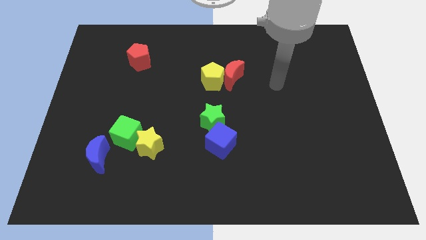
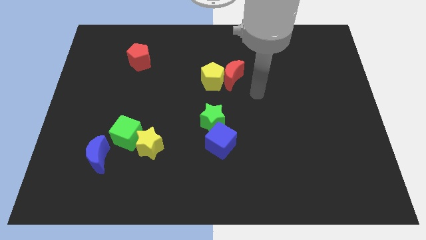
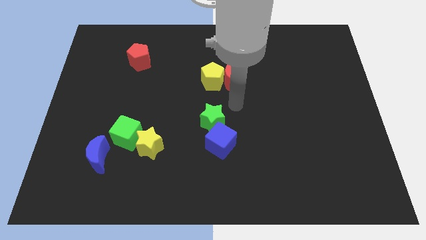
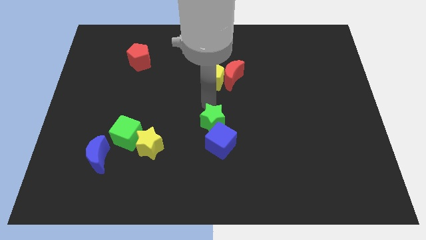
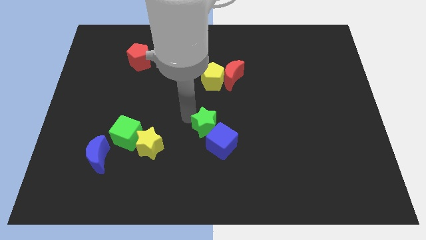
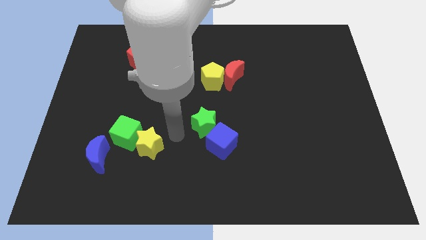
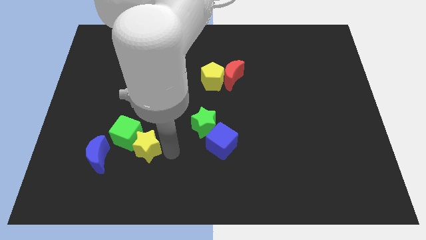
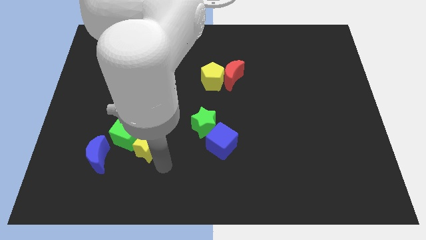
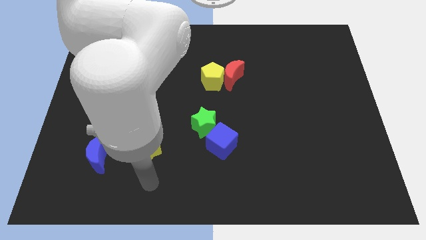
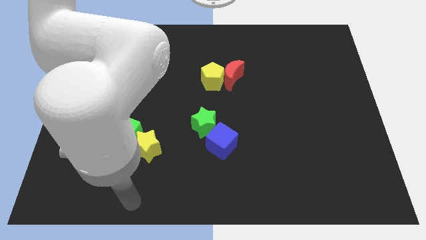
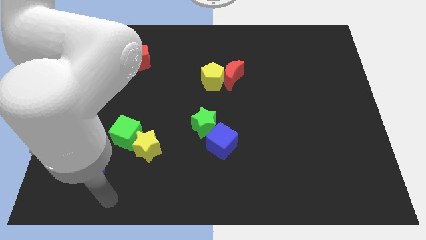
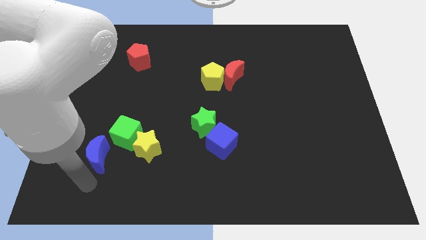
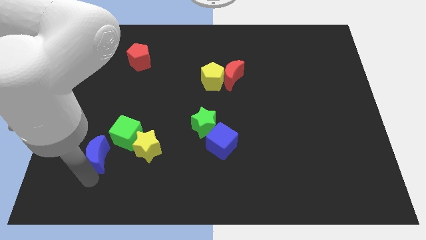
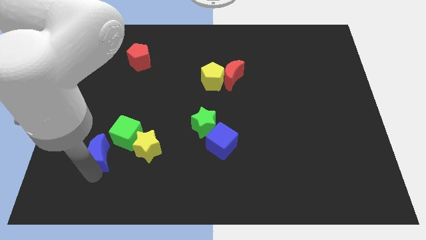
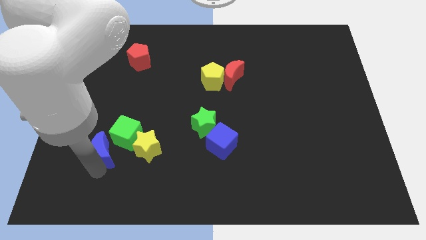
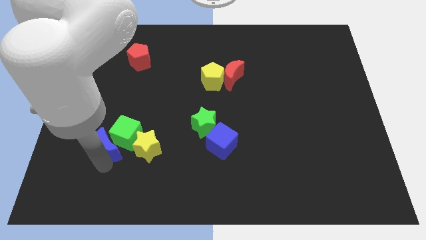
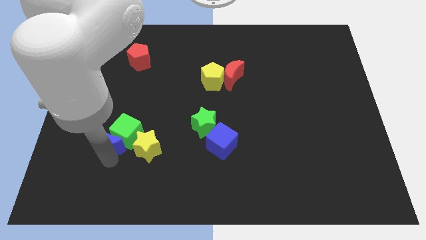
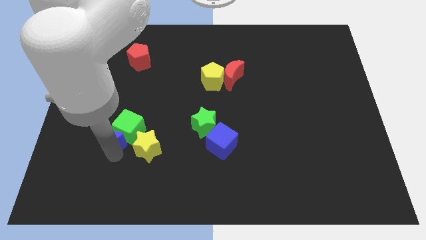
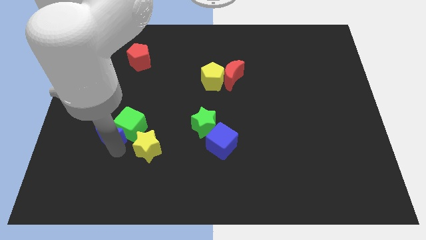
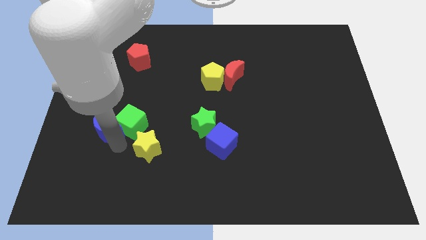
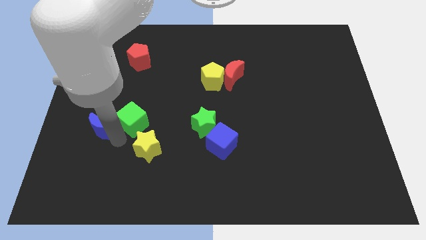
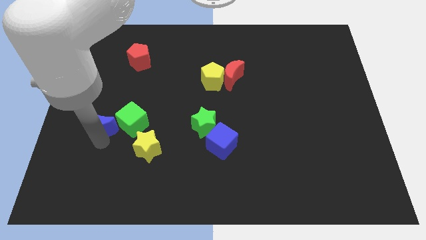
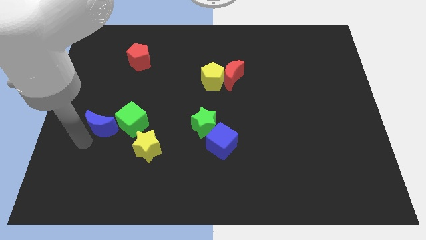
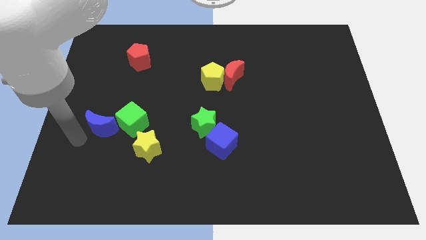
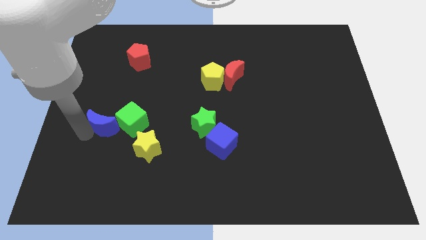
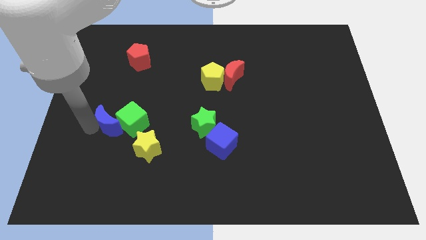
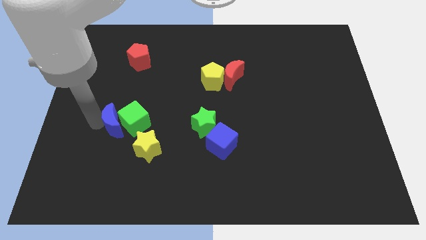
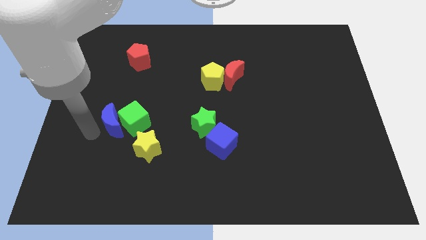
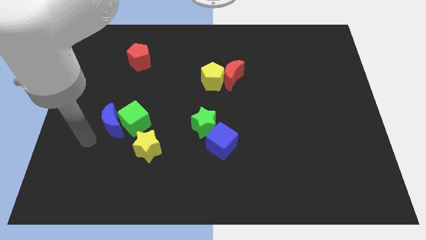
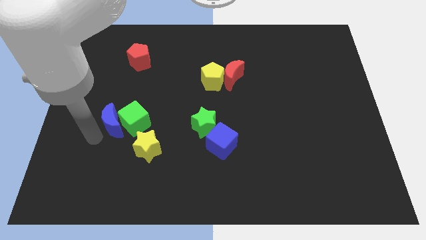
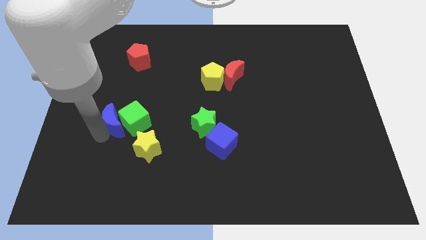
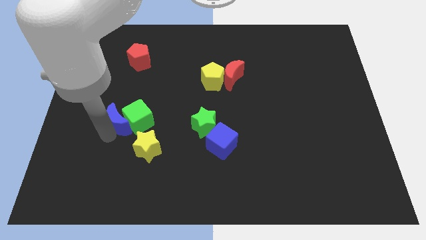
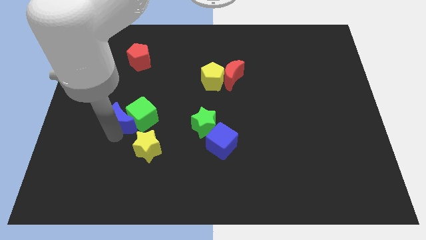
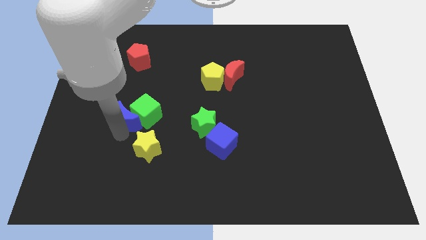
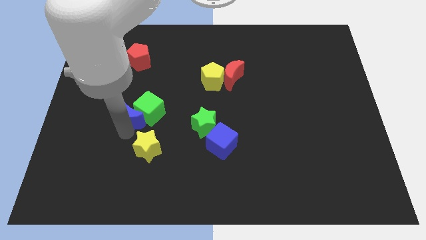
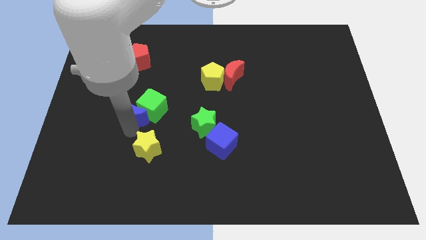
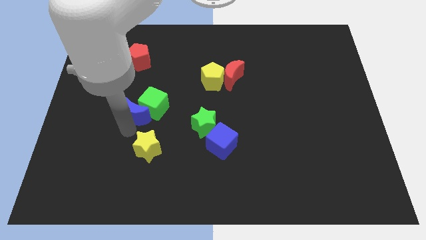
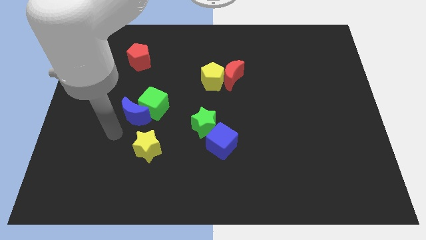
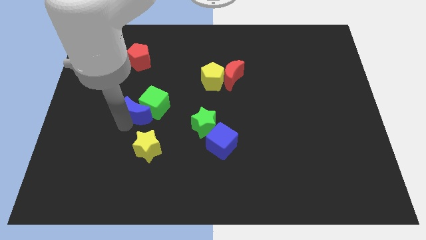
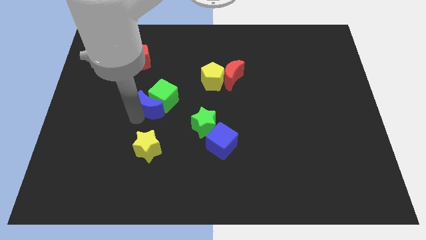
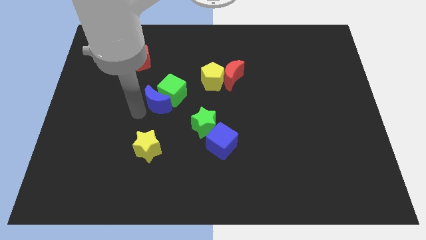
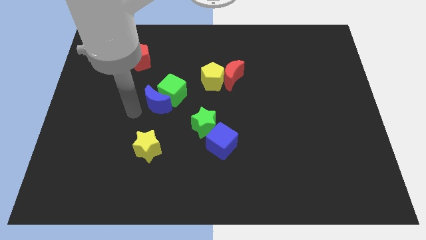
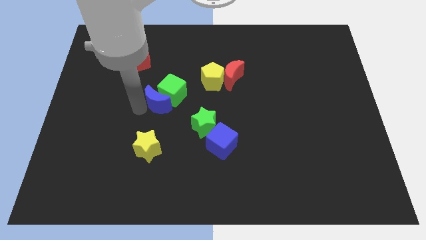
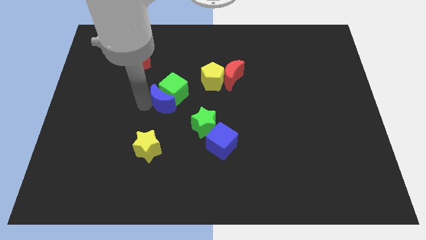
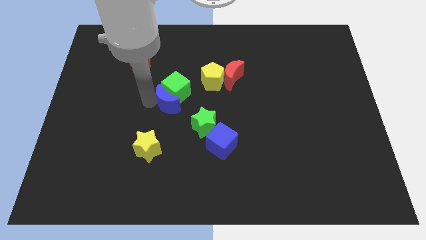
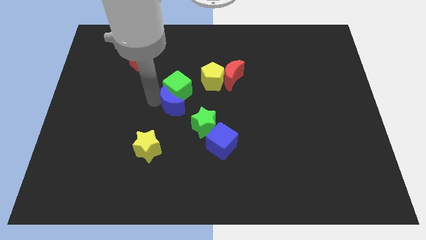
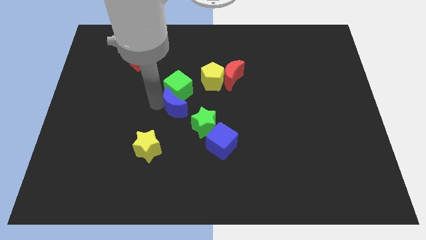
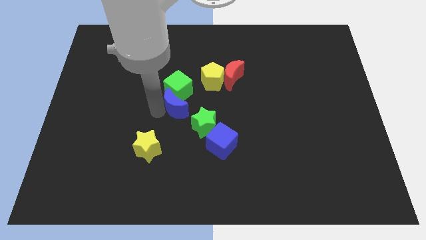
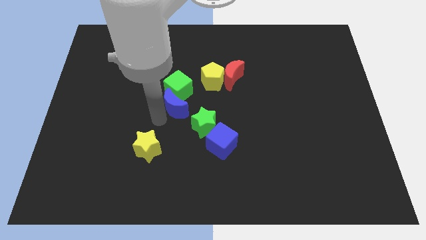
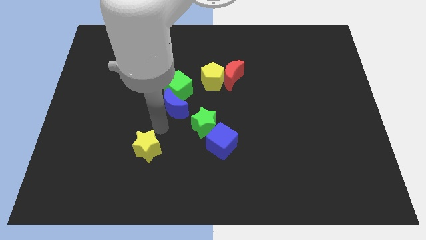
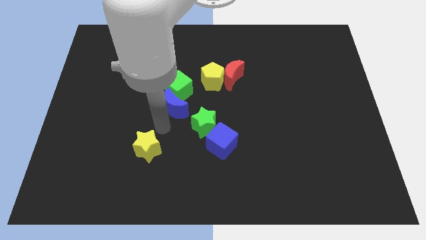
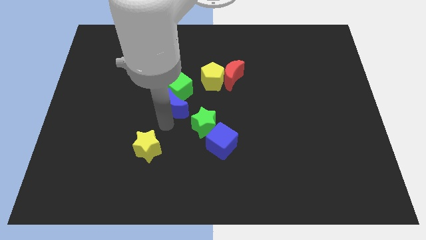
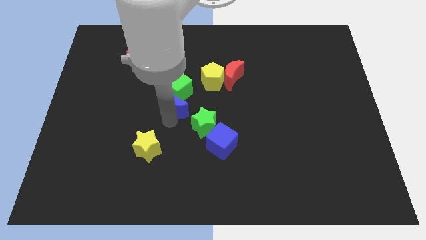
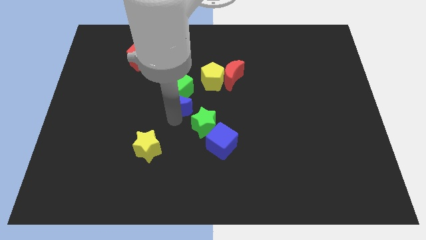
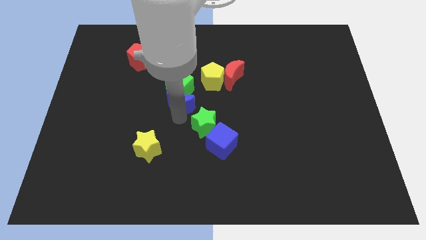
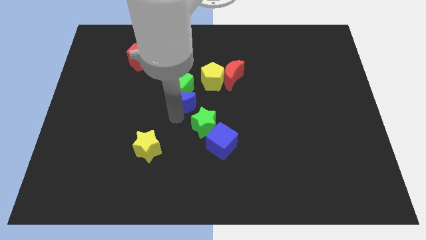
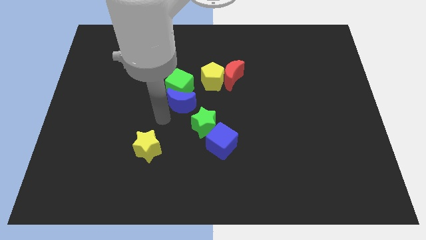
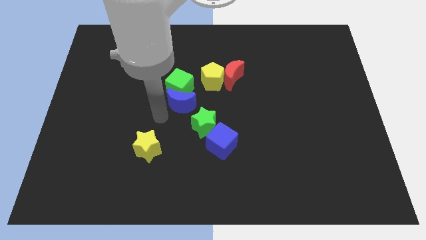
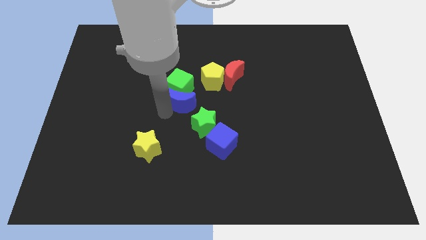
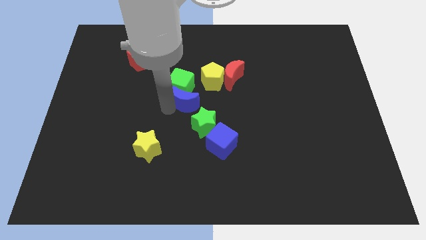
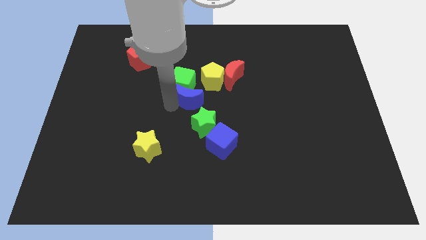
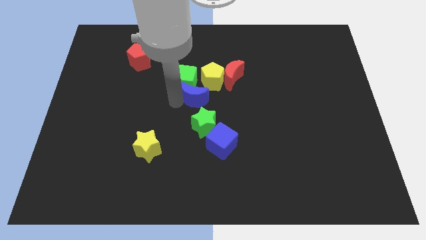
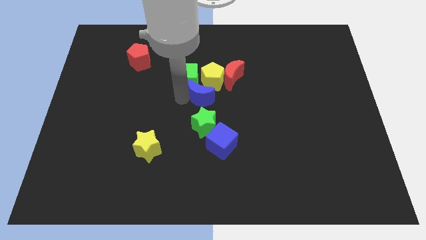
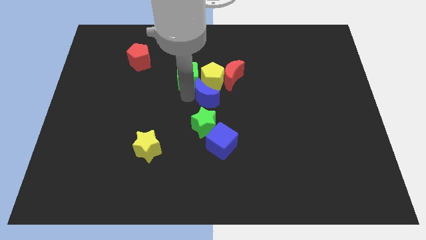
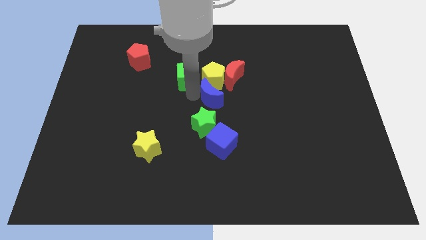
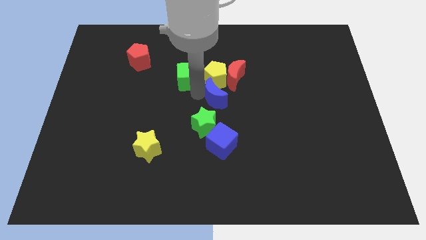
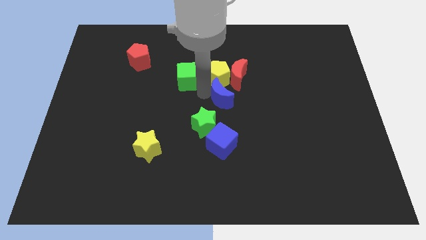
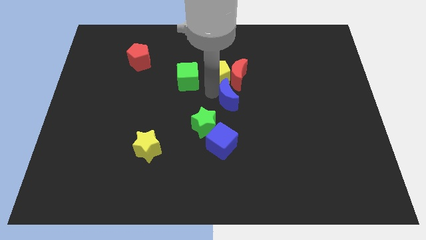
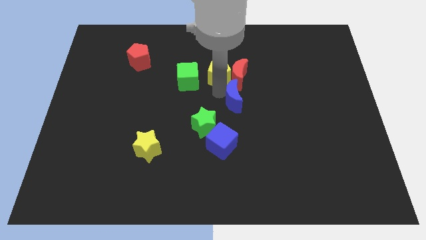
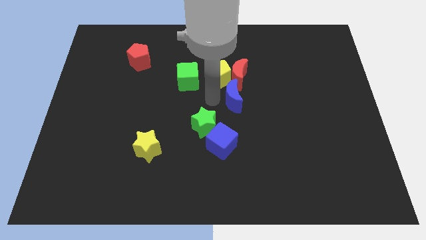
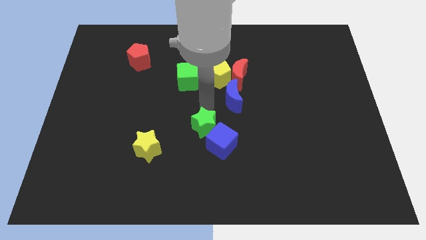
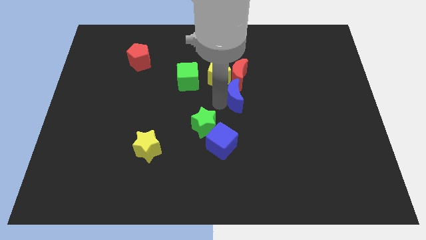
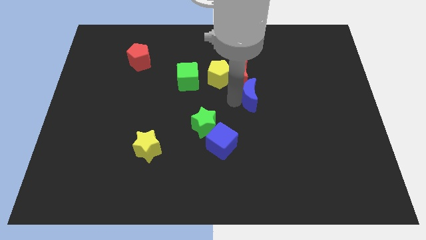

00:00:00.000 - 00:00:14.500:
move the blue moon to the bottom right side of the red moon

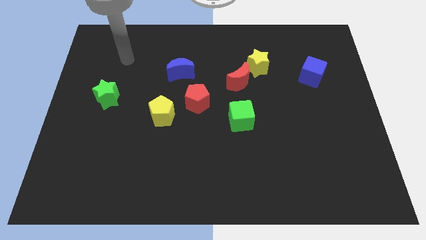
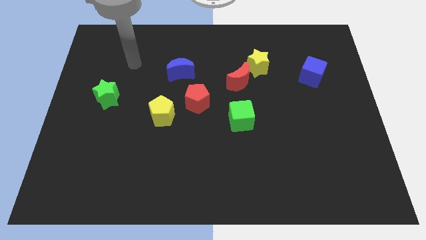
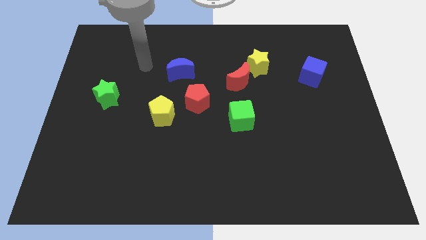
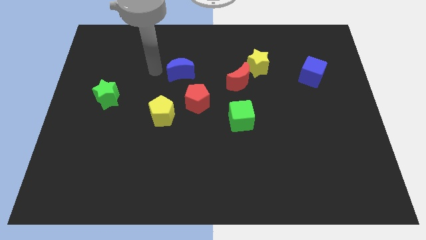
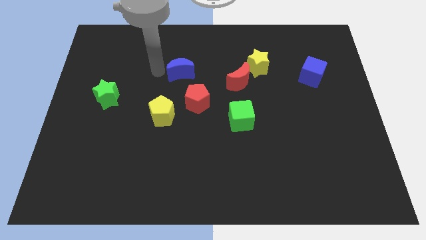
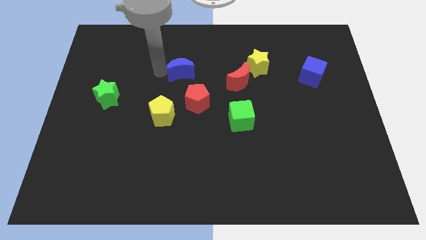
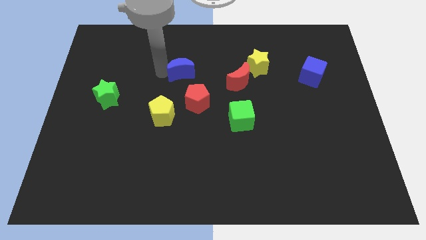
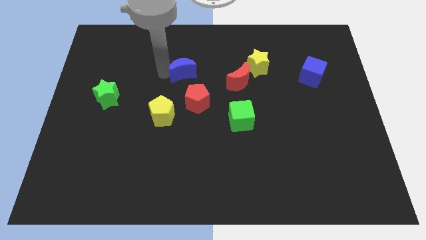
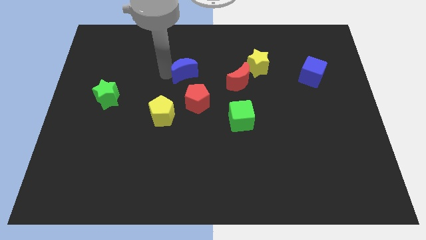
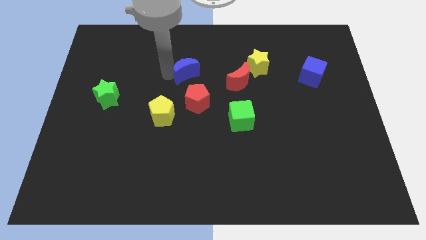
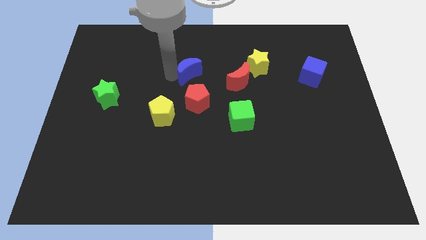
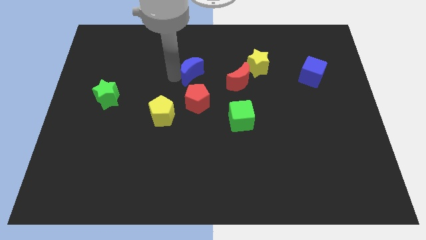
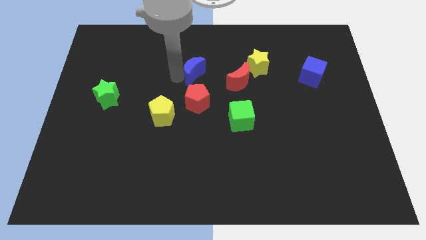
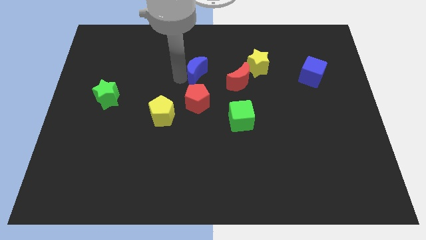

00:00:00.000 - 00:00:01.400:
push the blue moon just left of the yellow star
